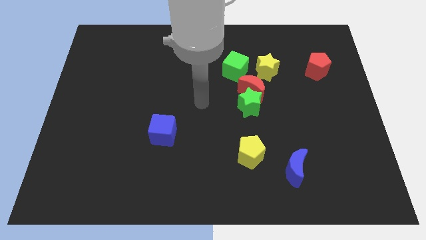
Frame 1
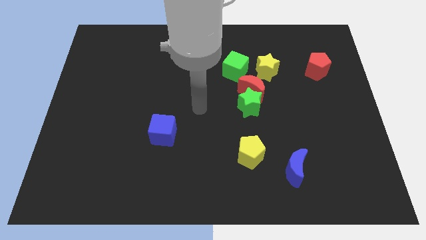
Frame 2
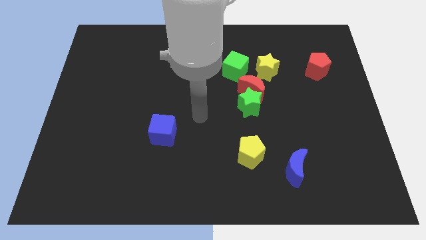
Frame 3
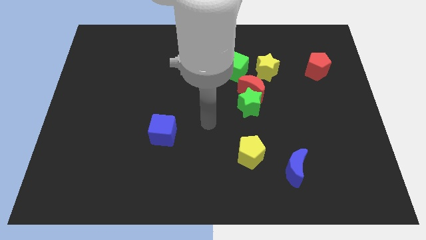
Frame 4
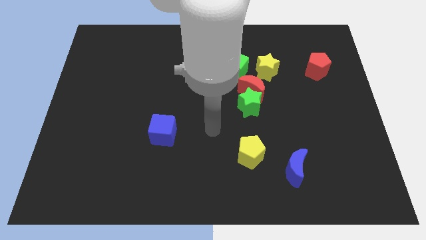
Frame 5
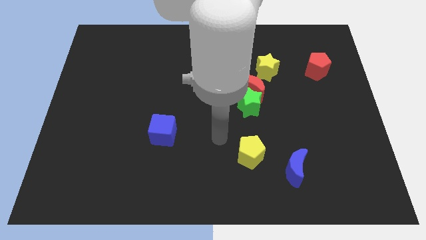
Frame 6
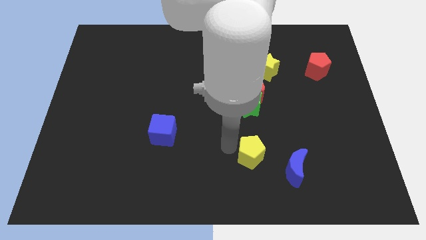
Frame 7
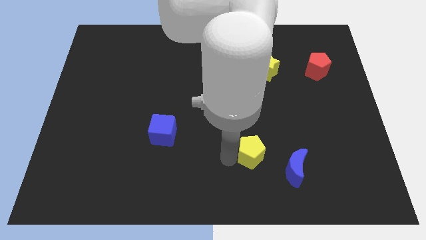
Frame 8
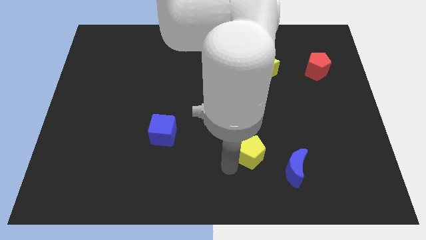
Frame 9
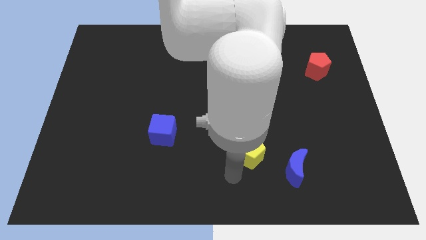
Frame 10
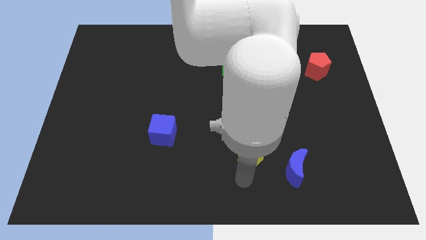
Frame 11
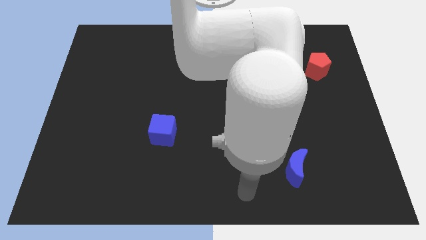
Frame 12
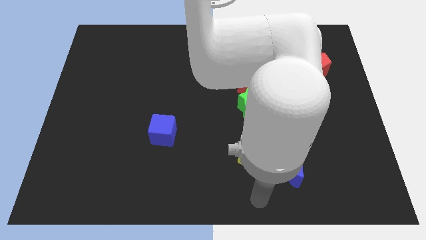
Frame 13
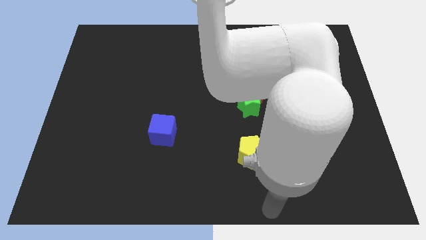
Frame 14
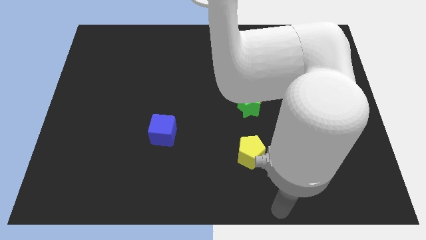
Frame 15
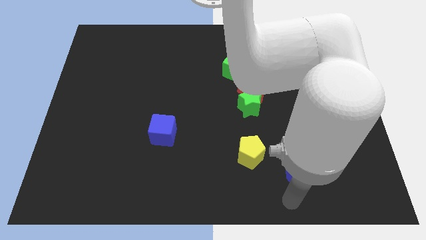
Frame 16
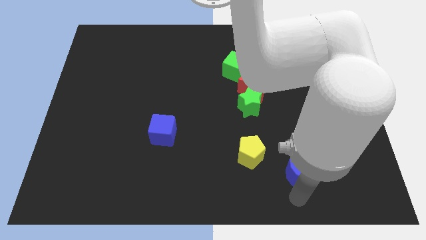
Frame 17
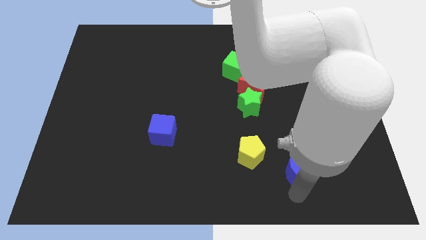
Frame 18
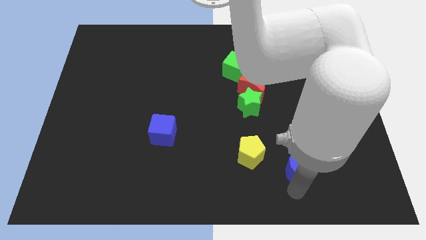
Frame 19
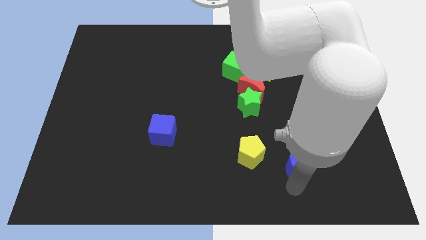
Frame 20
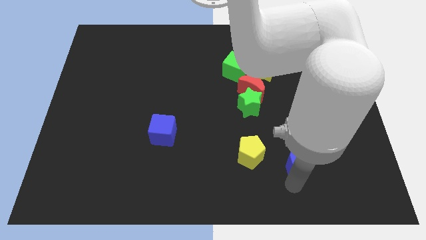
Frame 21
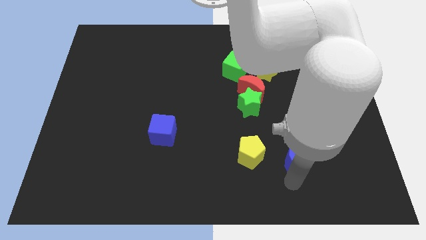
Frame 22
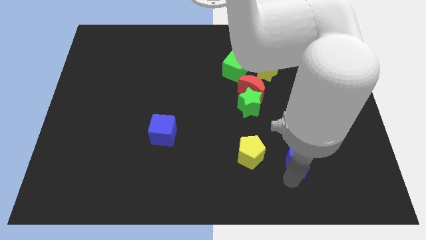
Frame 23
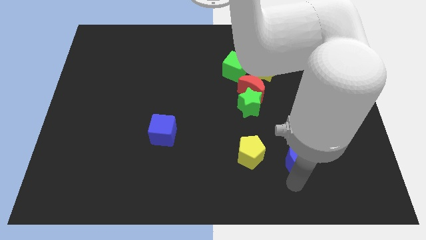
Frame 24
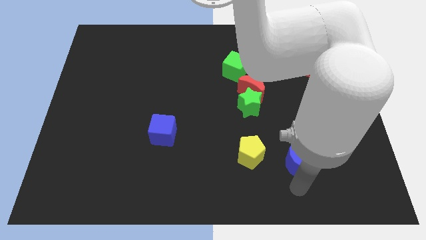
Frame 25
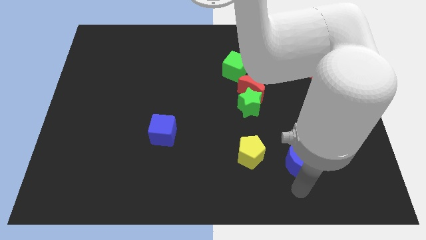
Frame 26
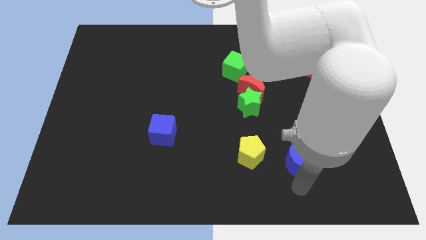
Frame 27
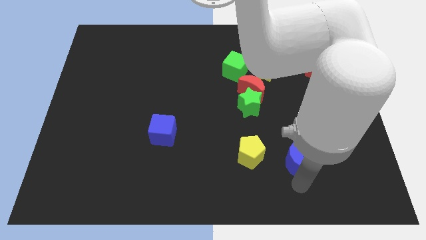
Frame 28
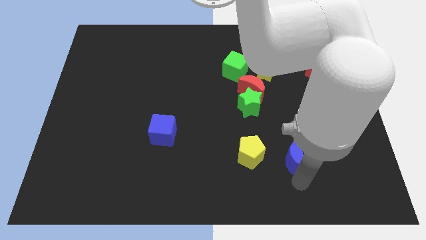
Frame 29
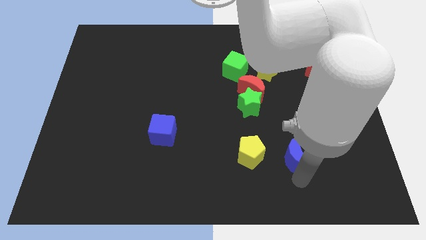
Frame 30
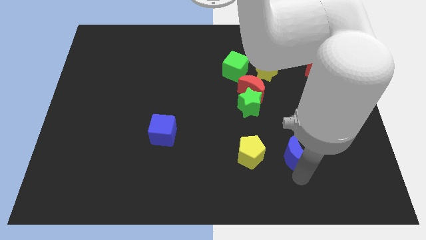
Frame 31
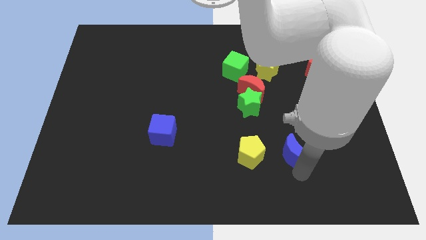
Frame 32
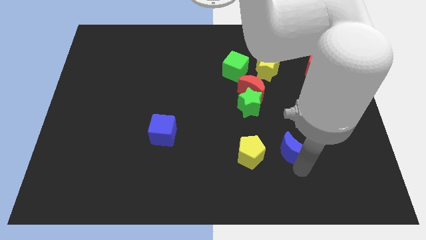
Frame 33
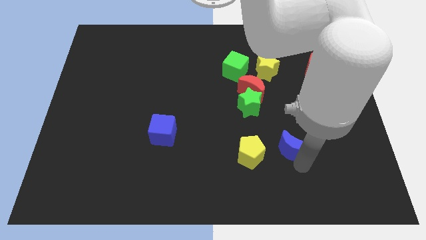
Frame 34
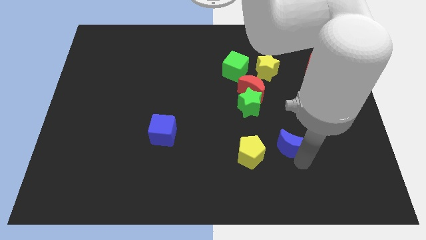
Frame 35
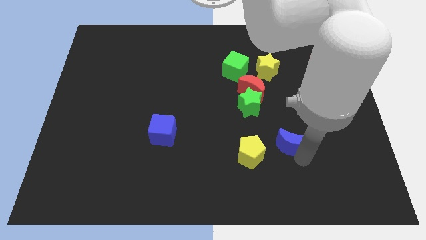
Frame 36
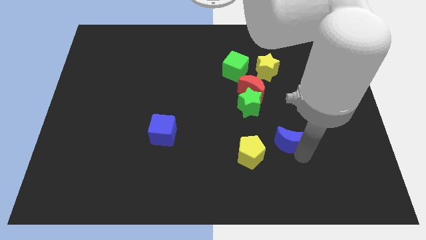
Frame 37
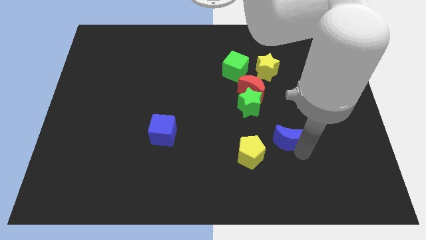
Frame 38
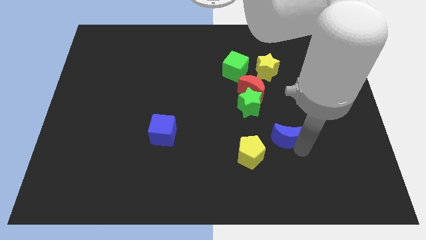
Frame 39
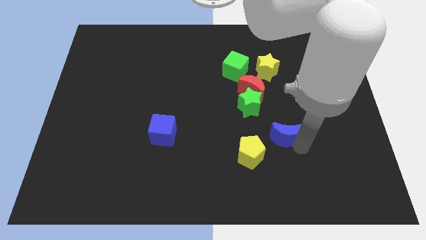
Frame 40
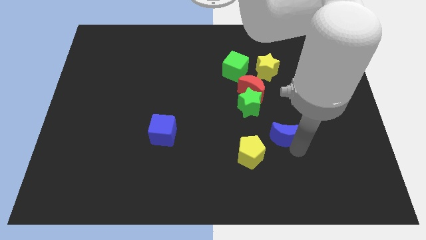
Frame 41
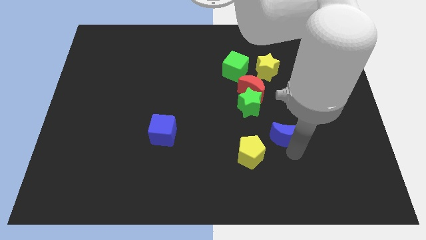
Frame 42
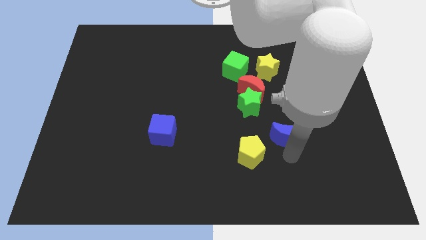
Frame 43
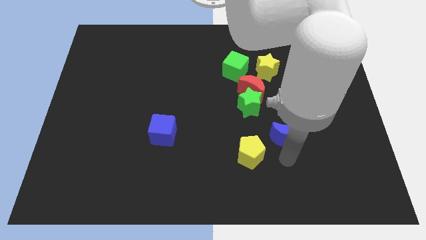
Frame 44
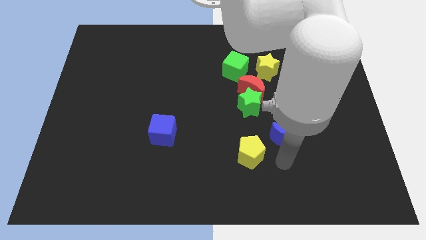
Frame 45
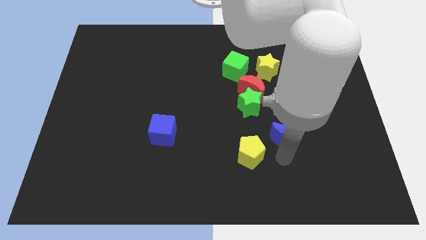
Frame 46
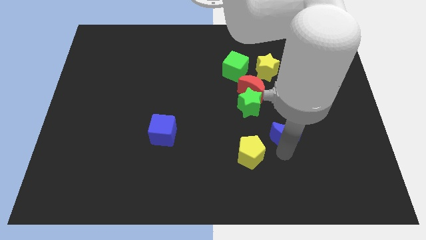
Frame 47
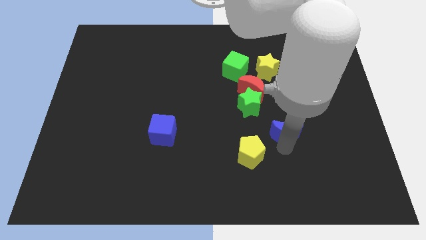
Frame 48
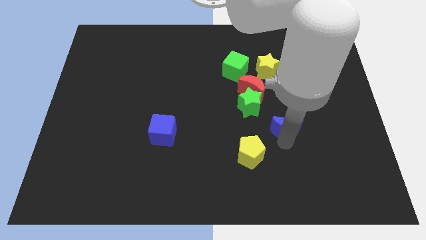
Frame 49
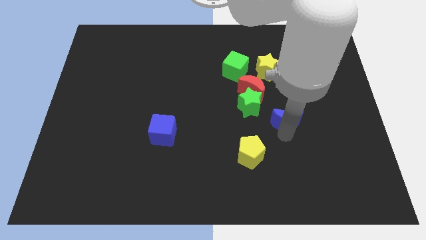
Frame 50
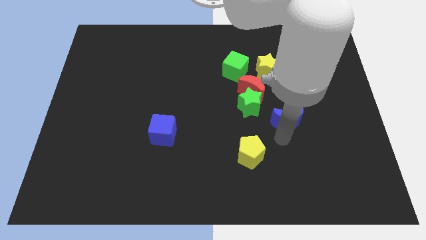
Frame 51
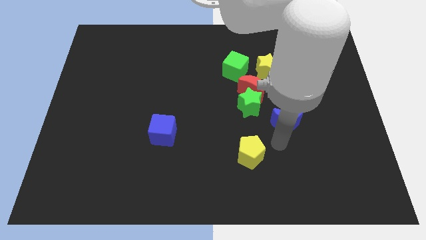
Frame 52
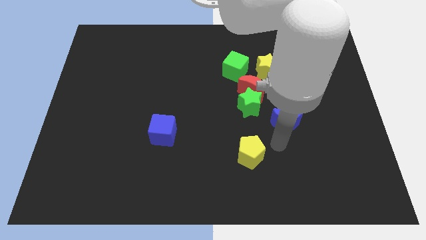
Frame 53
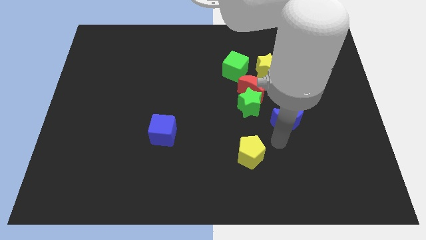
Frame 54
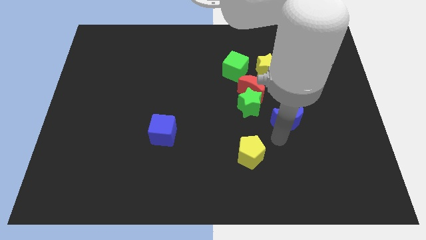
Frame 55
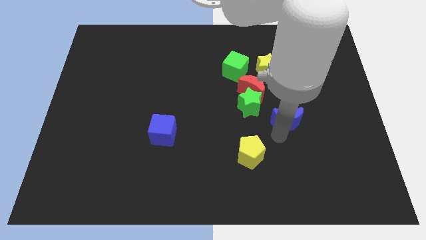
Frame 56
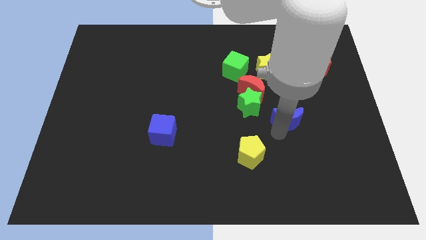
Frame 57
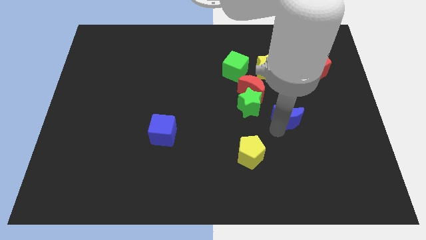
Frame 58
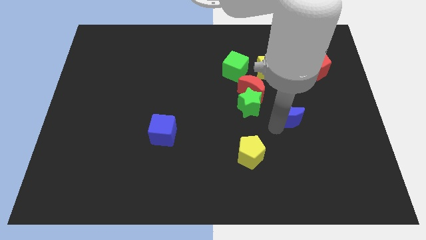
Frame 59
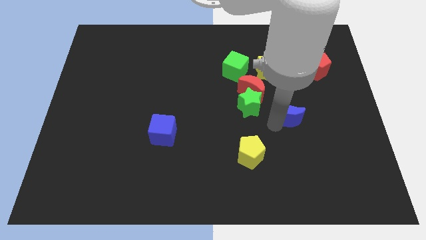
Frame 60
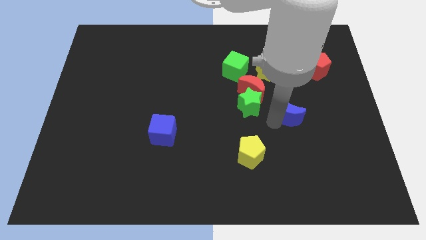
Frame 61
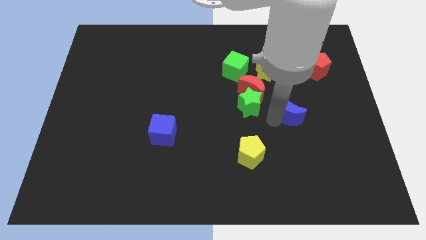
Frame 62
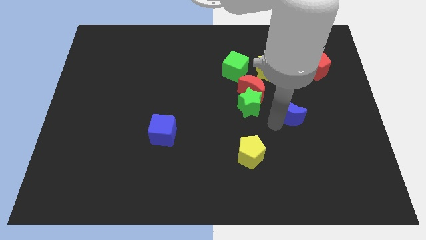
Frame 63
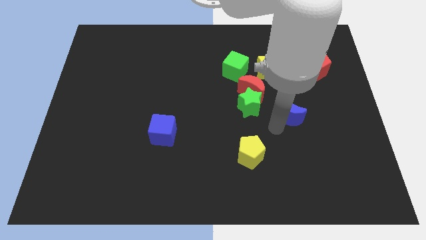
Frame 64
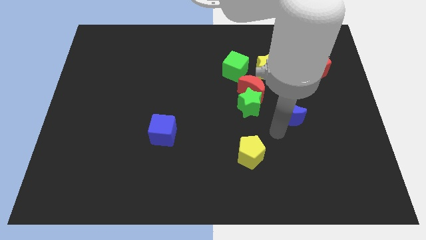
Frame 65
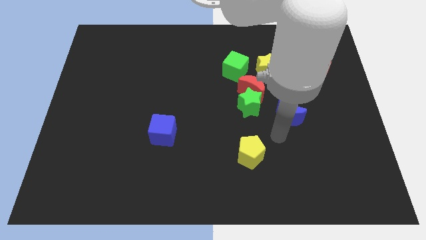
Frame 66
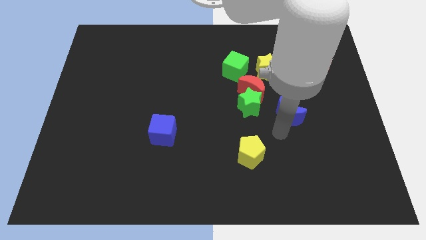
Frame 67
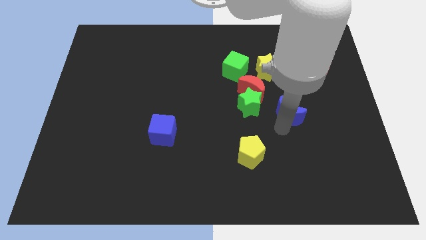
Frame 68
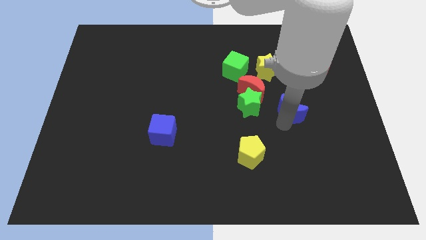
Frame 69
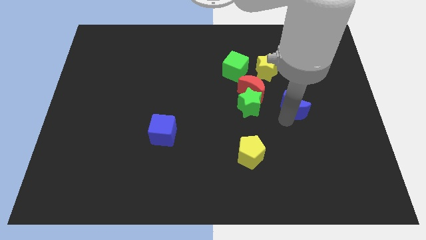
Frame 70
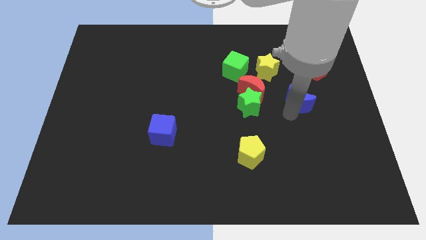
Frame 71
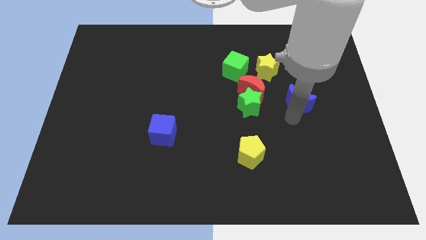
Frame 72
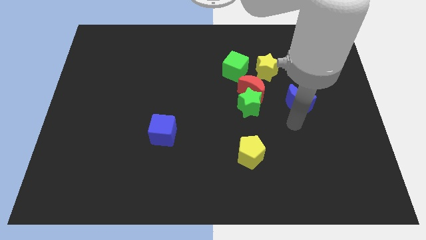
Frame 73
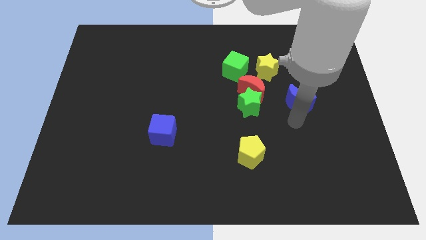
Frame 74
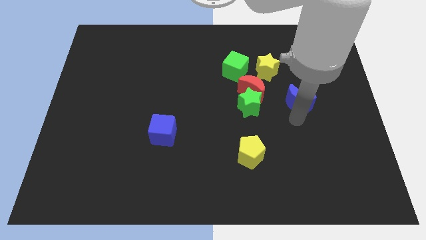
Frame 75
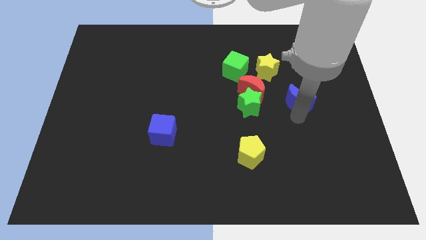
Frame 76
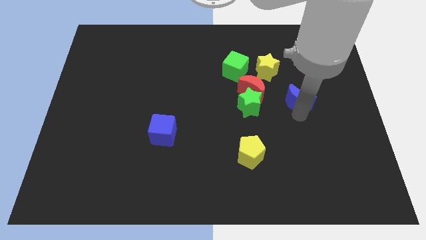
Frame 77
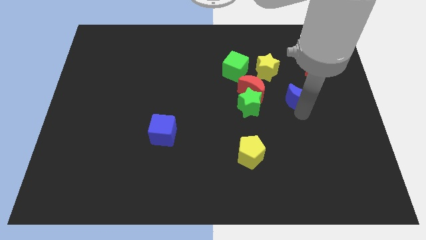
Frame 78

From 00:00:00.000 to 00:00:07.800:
push the blue moon to the bottom left side of the red pentagon
